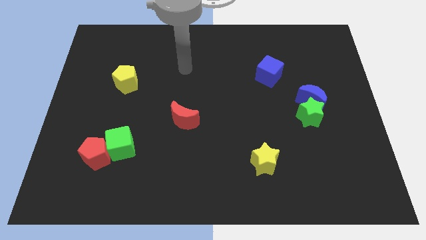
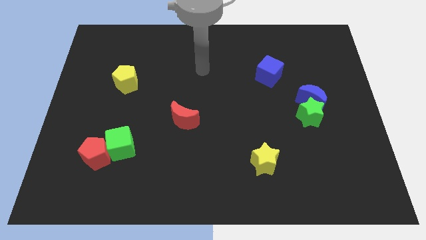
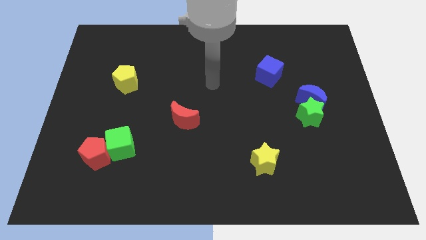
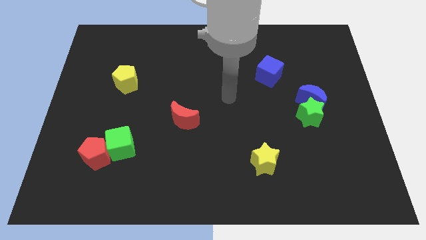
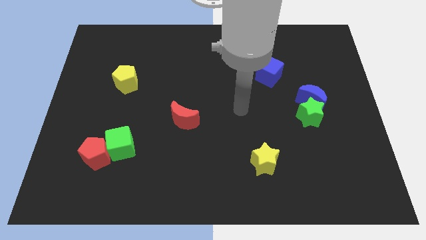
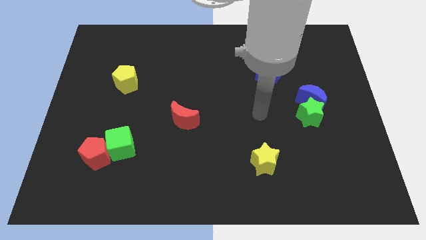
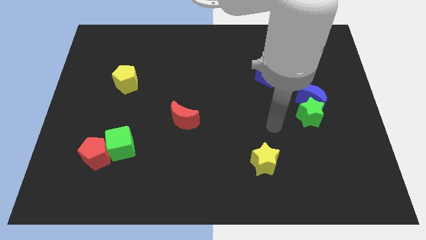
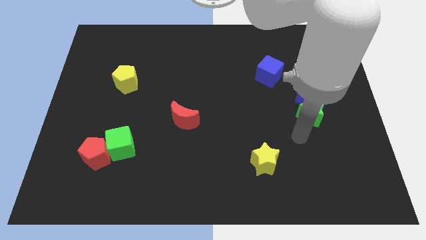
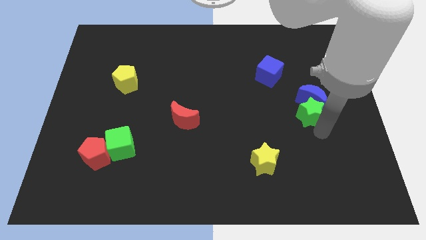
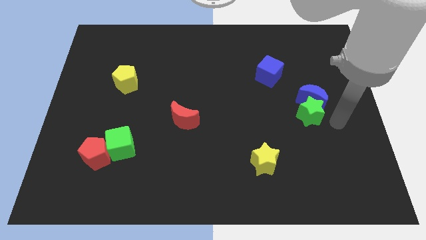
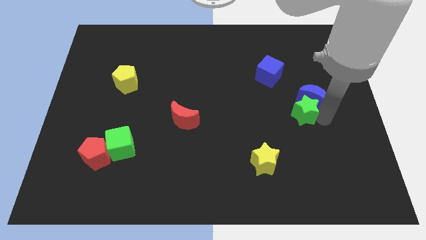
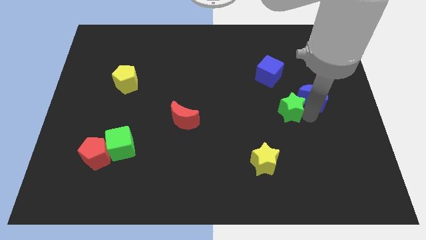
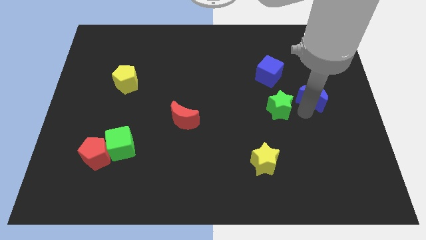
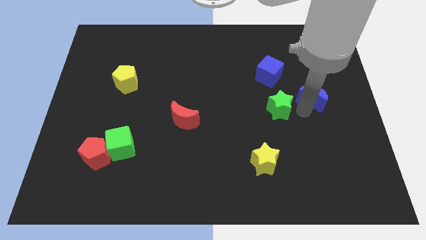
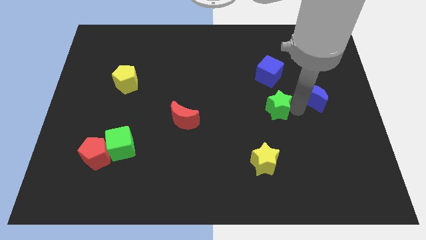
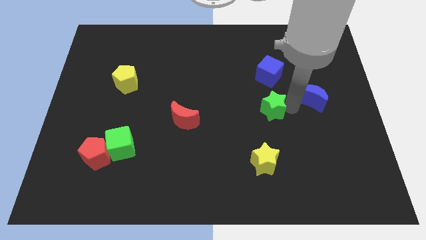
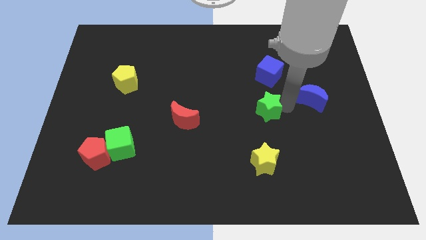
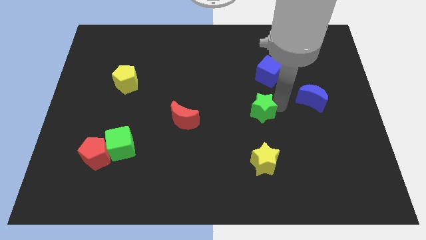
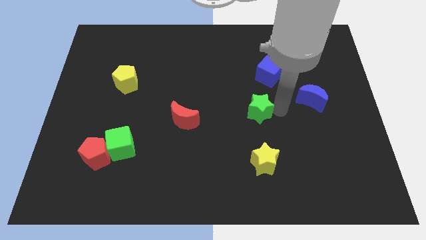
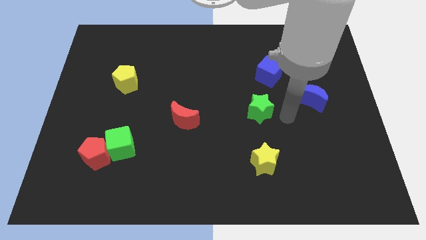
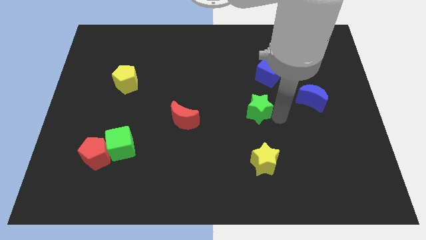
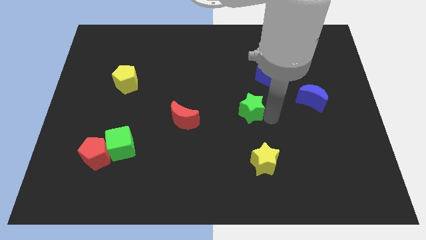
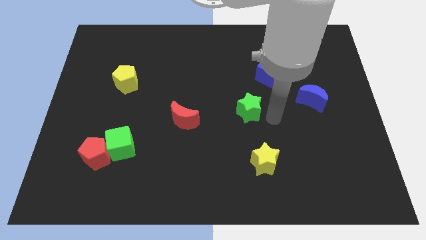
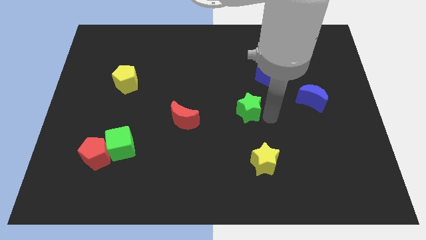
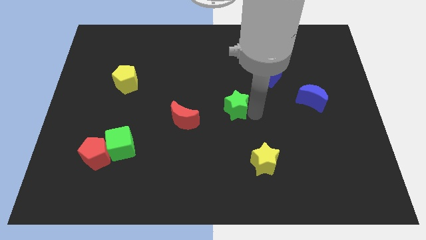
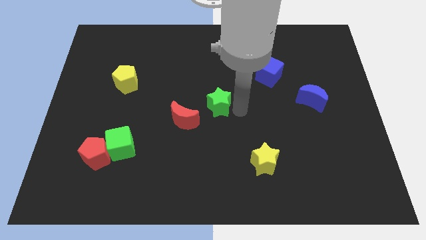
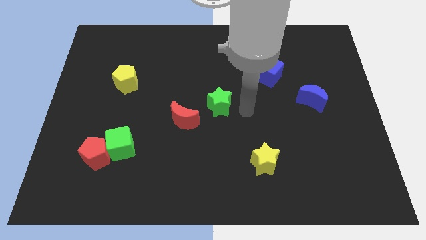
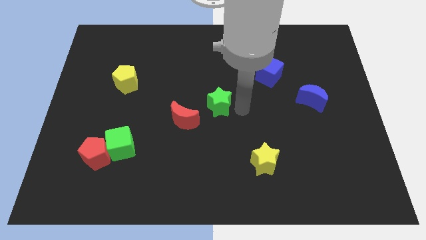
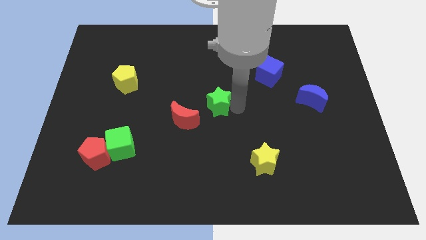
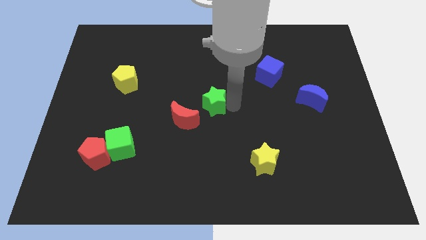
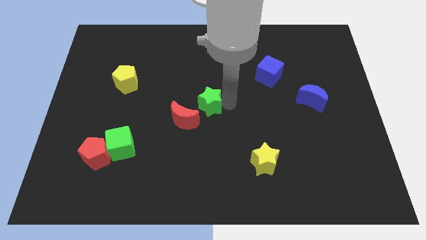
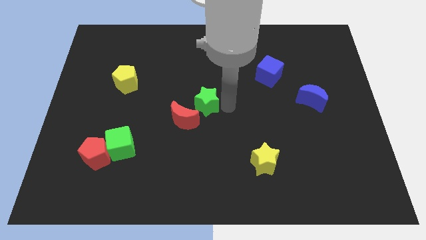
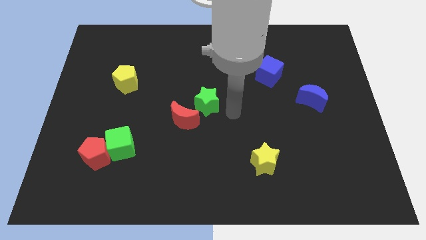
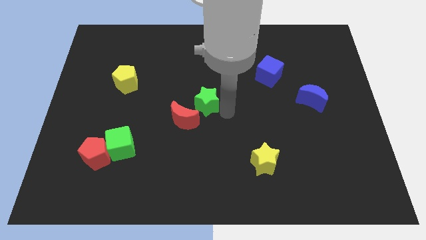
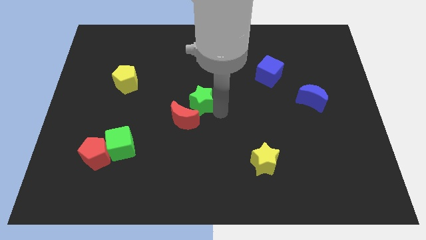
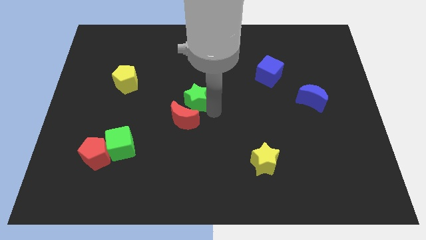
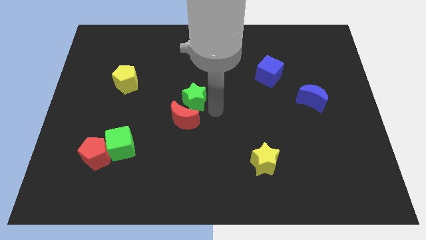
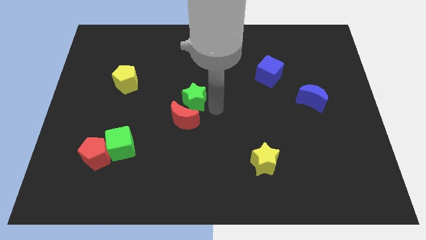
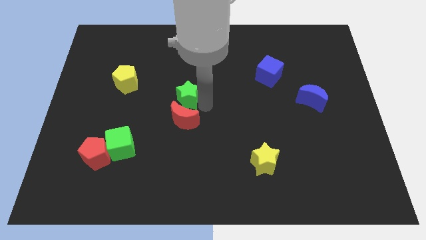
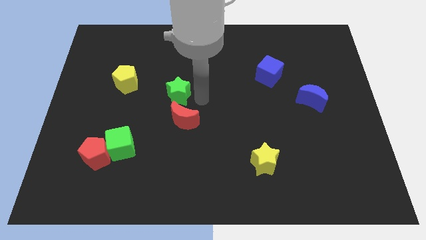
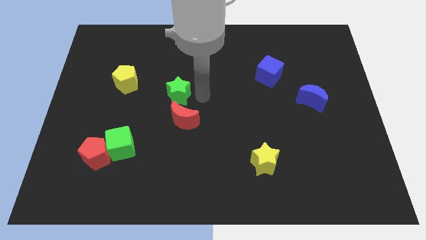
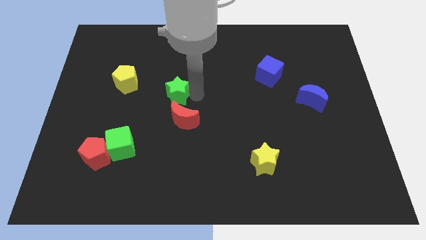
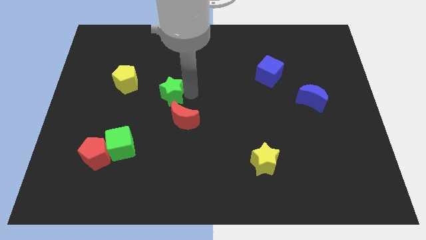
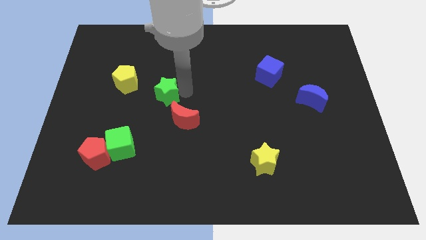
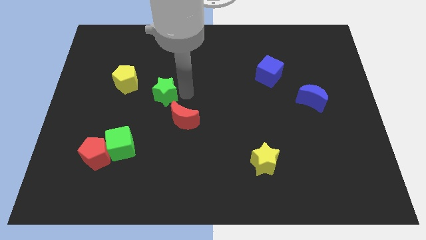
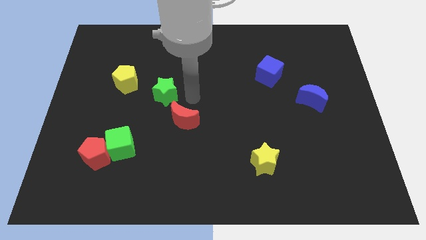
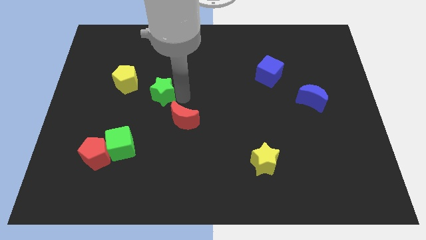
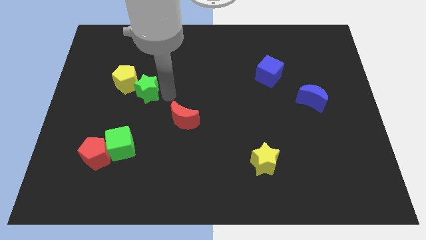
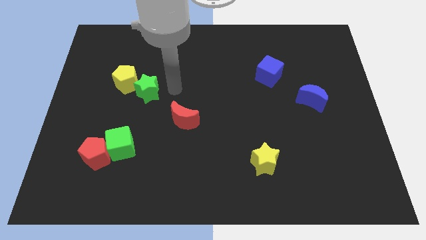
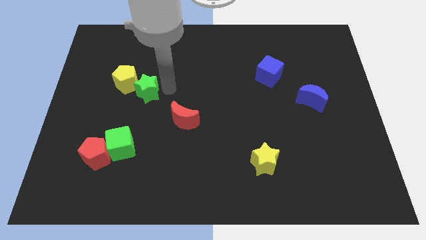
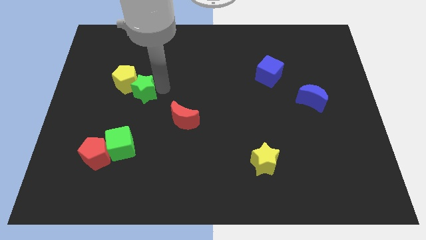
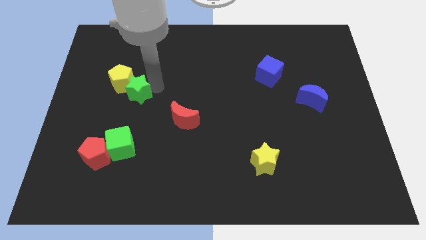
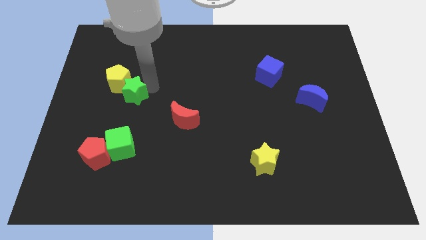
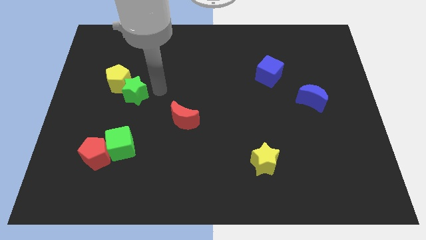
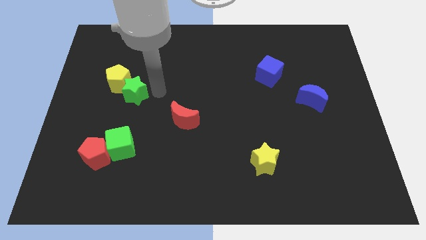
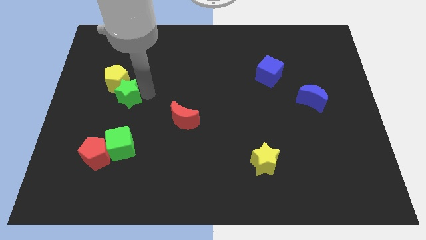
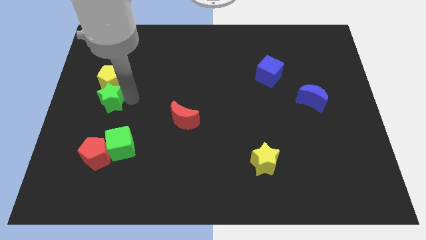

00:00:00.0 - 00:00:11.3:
put the green star diagonally down and to the left of the yellow pentagon

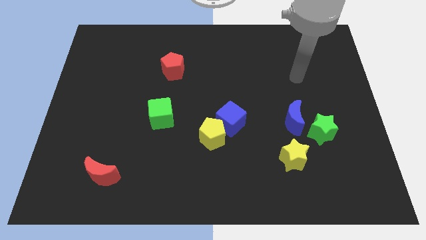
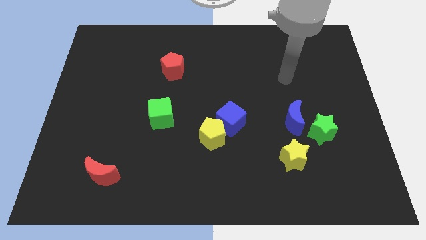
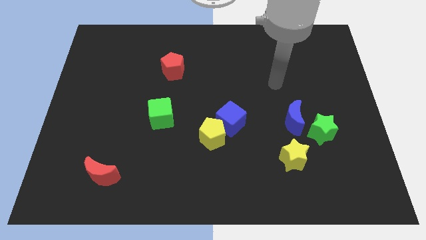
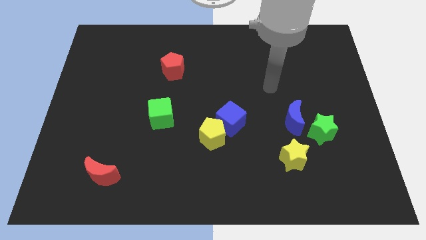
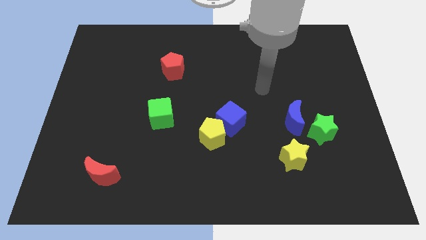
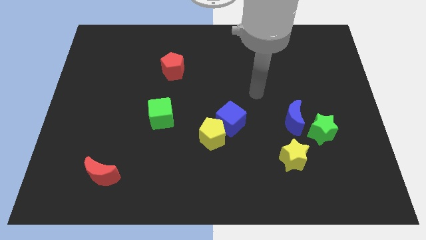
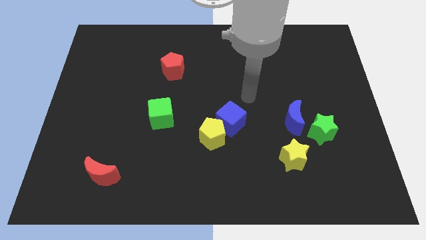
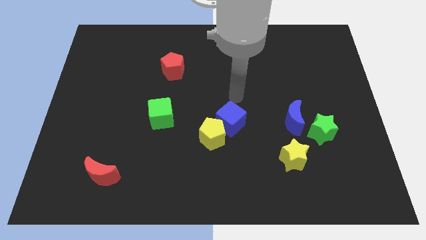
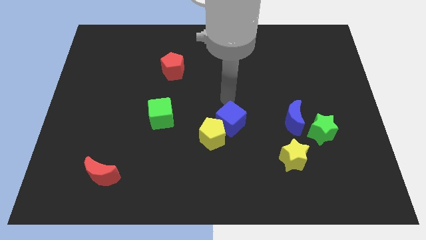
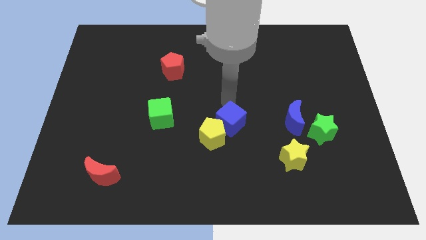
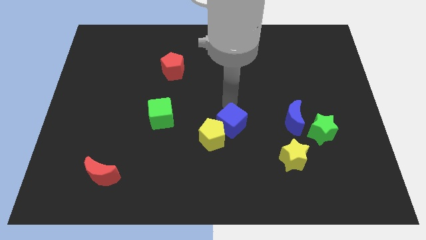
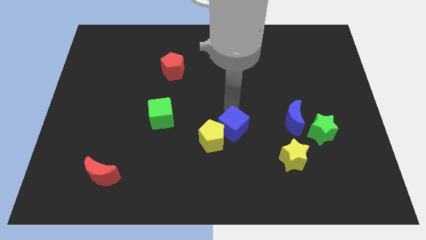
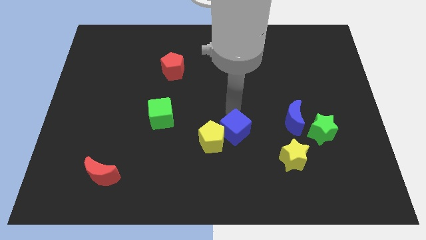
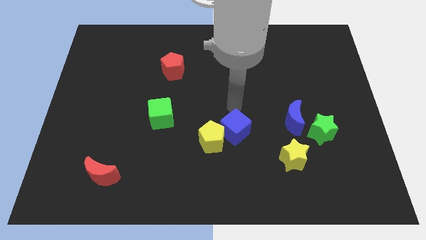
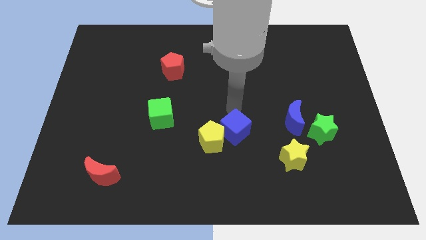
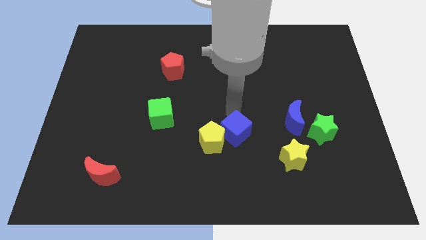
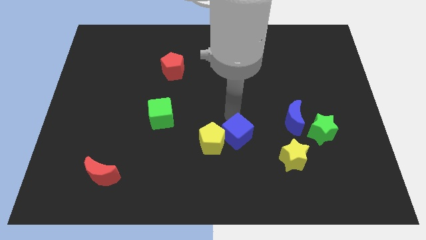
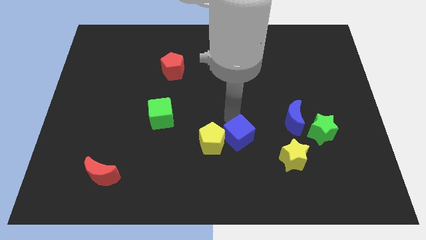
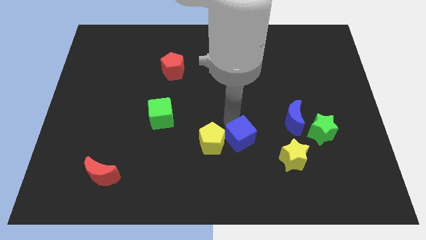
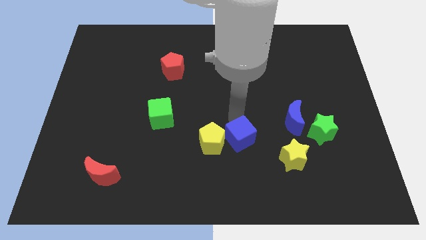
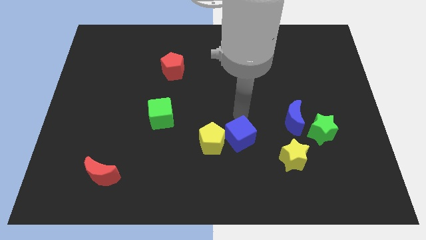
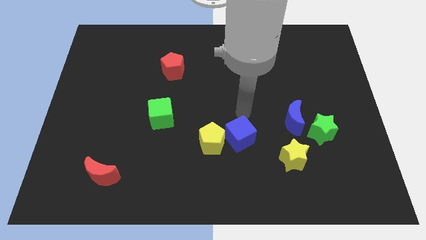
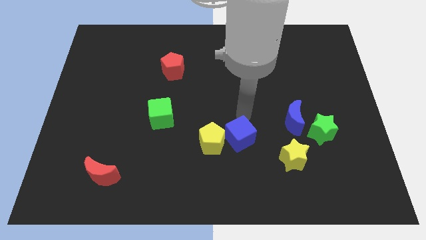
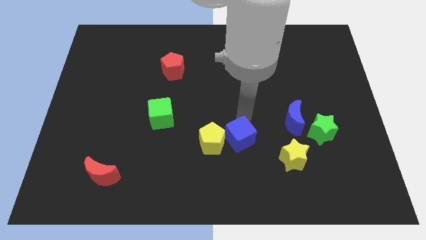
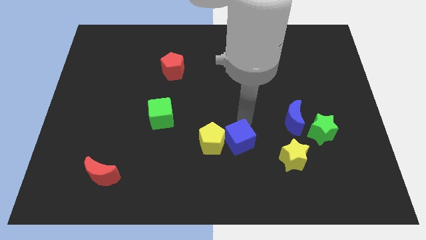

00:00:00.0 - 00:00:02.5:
move the blue cube to the bottom right side of the yellow pentagon
